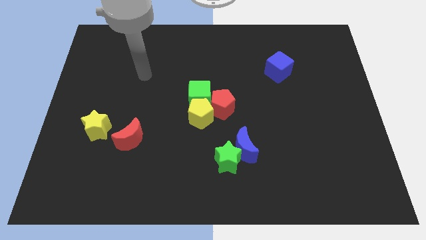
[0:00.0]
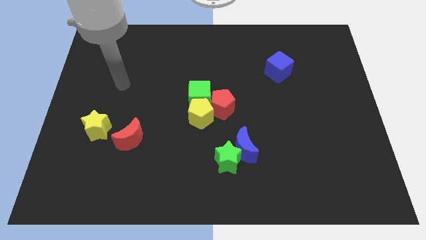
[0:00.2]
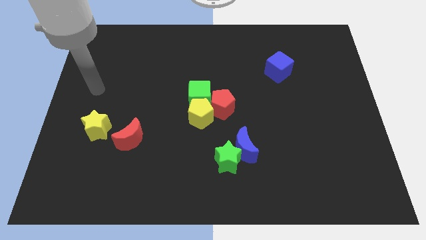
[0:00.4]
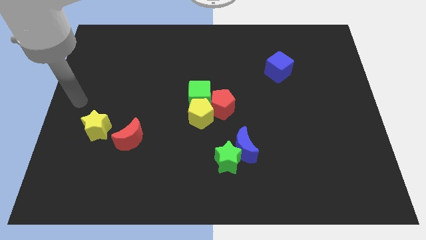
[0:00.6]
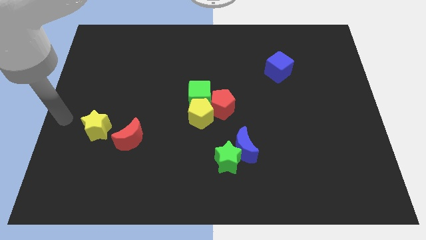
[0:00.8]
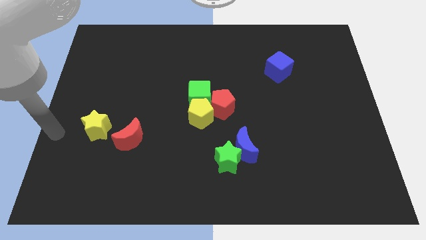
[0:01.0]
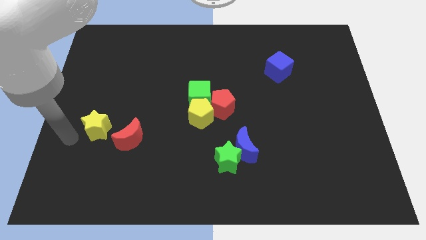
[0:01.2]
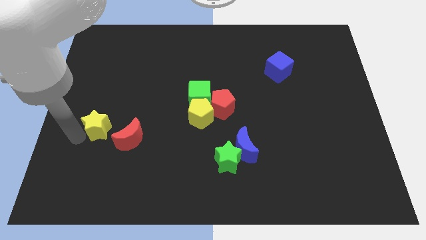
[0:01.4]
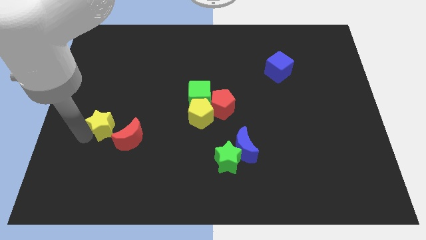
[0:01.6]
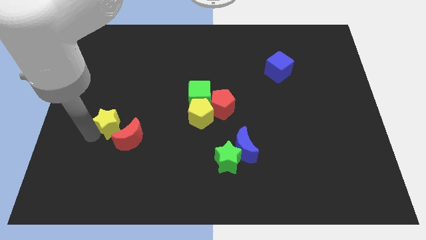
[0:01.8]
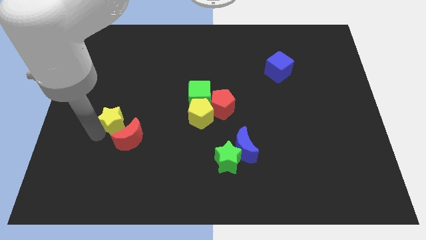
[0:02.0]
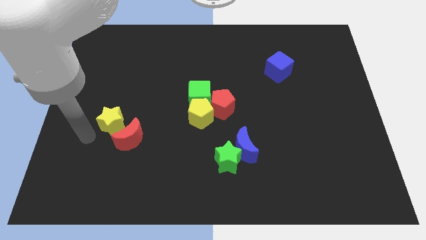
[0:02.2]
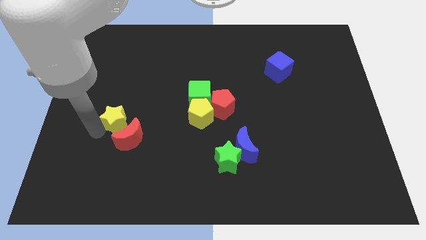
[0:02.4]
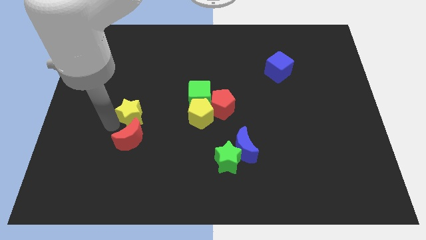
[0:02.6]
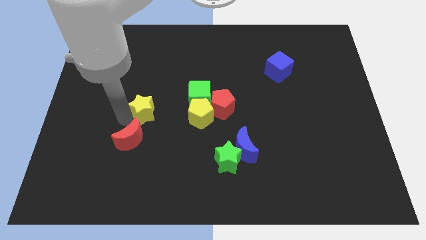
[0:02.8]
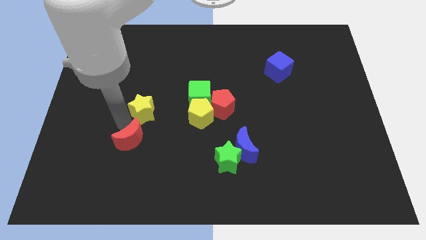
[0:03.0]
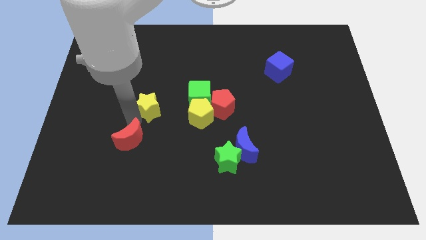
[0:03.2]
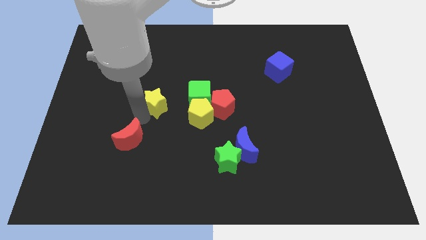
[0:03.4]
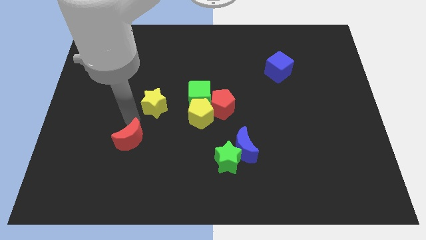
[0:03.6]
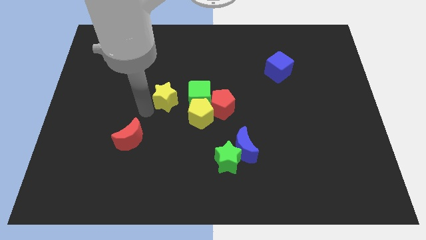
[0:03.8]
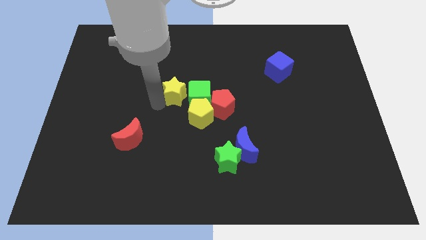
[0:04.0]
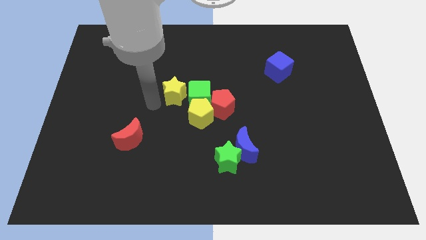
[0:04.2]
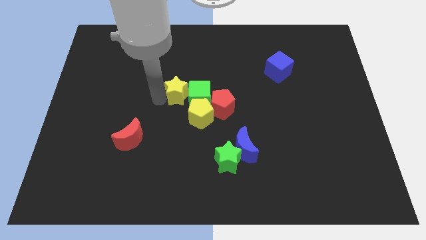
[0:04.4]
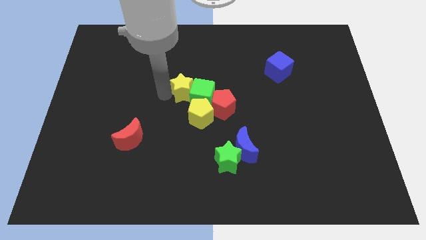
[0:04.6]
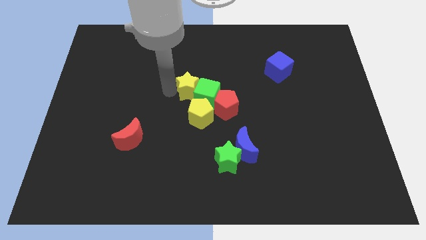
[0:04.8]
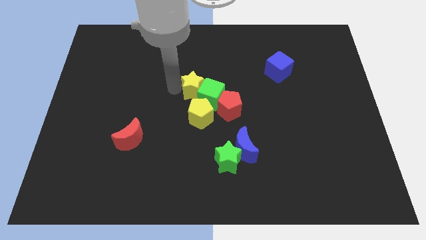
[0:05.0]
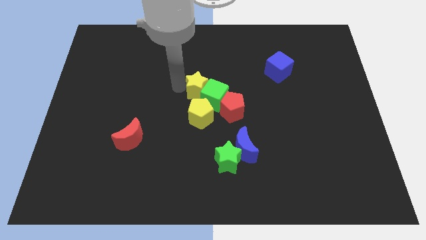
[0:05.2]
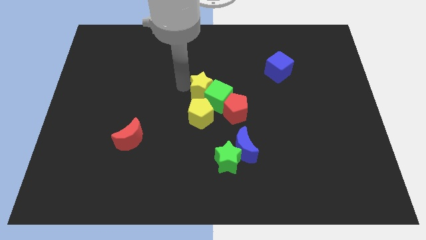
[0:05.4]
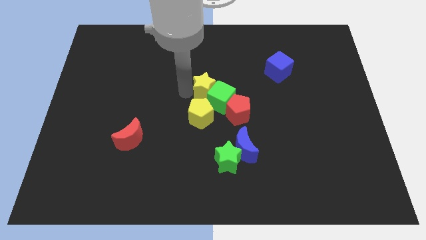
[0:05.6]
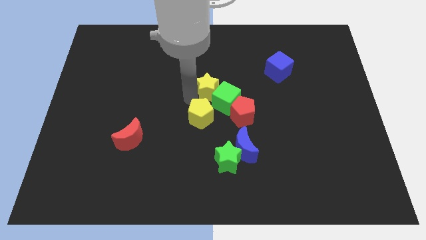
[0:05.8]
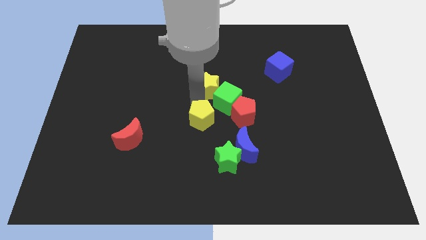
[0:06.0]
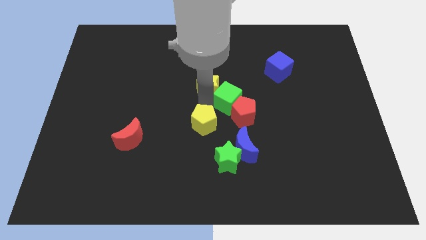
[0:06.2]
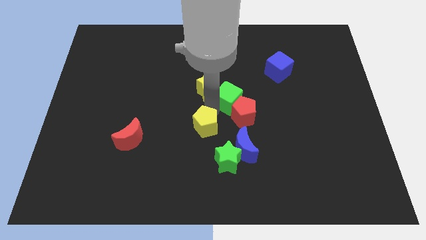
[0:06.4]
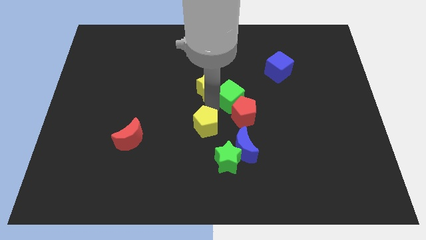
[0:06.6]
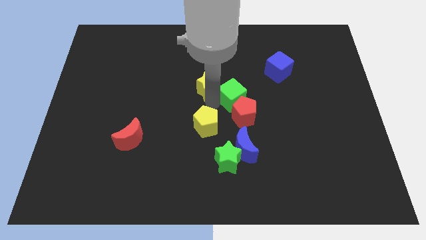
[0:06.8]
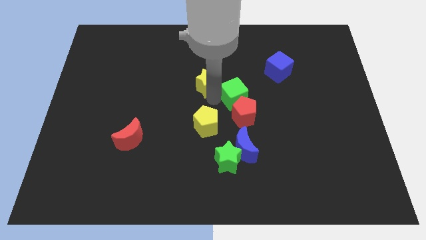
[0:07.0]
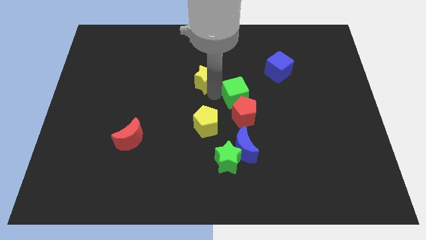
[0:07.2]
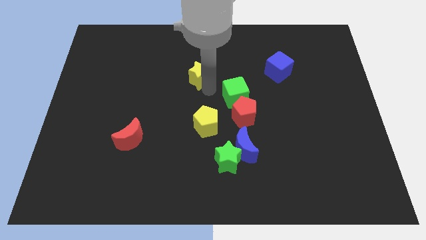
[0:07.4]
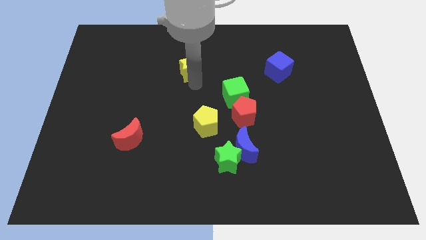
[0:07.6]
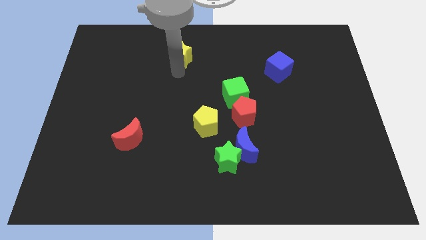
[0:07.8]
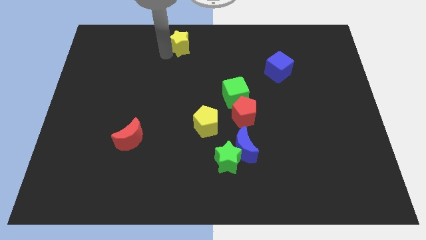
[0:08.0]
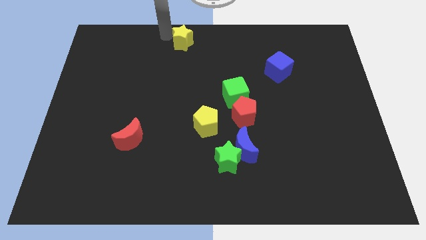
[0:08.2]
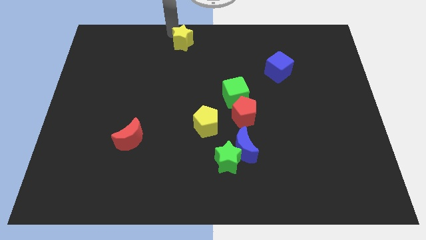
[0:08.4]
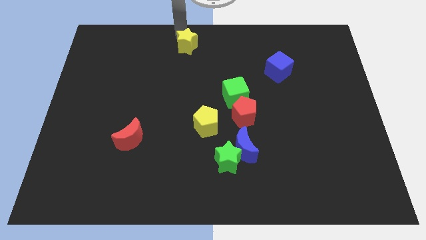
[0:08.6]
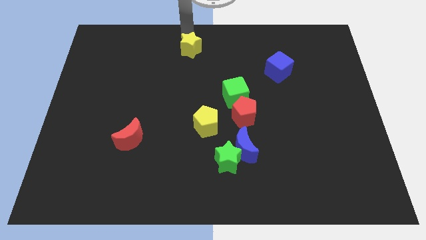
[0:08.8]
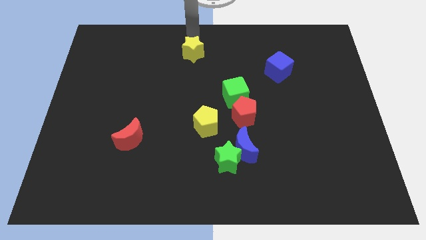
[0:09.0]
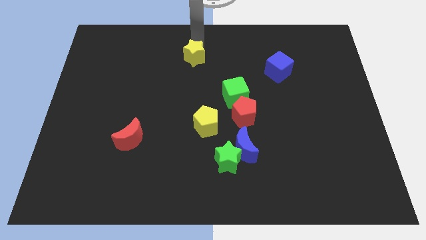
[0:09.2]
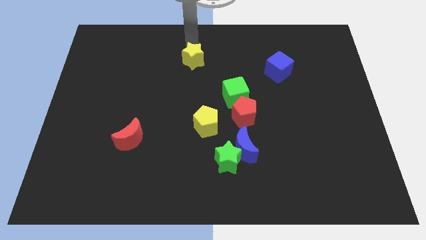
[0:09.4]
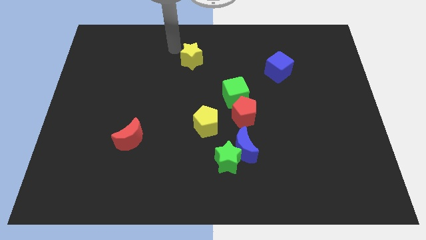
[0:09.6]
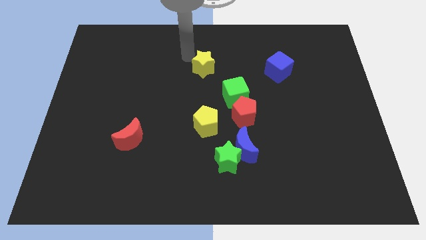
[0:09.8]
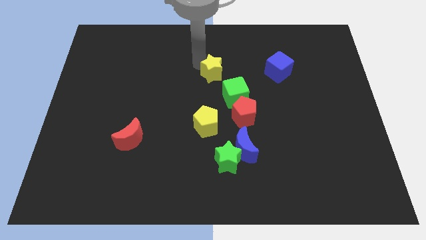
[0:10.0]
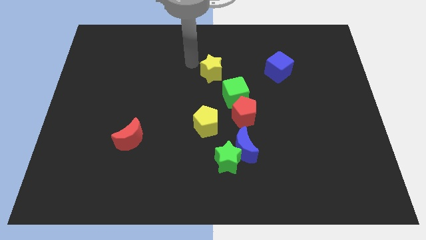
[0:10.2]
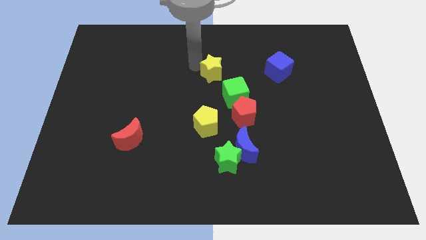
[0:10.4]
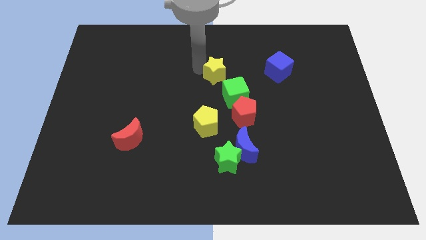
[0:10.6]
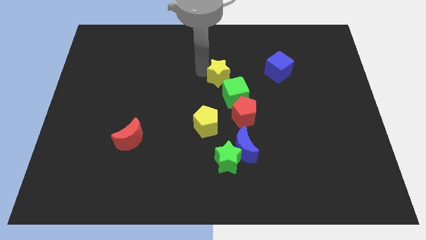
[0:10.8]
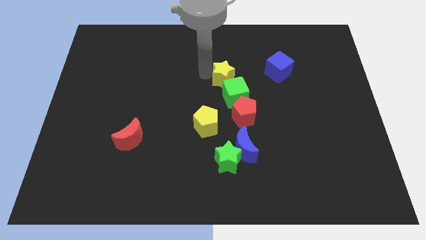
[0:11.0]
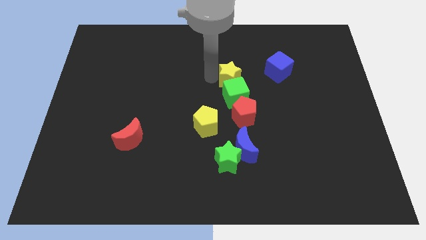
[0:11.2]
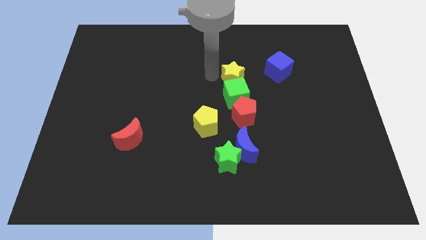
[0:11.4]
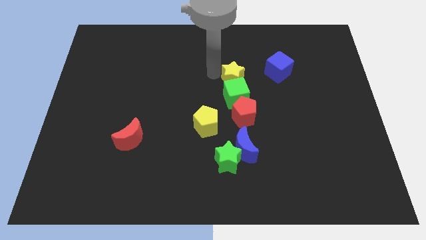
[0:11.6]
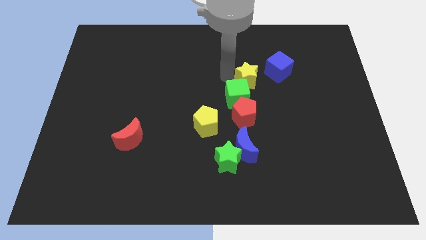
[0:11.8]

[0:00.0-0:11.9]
push the yellow star diagonally down and to the left of the blue cube

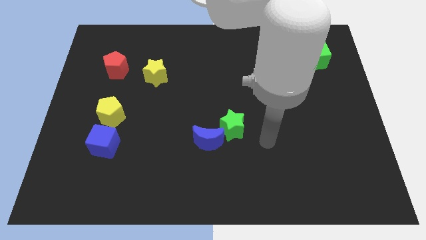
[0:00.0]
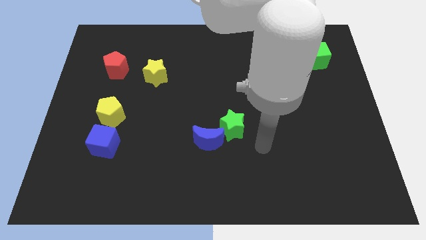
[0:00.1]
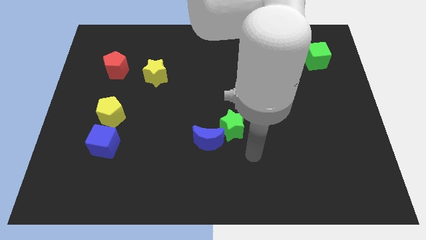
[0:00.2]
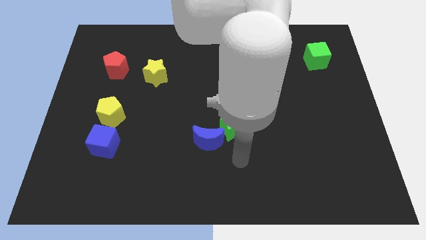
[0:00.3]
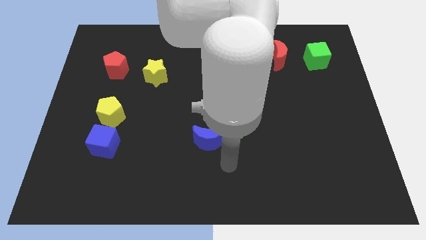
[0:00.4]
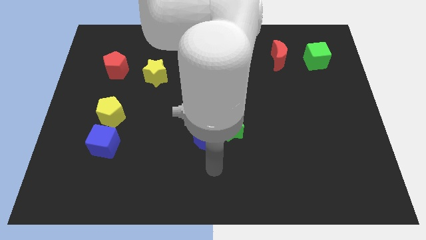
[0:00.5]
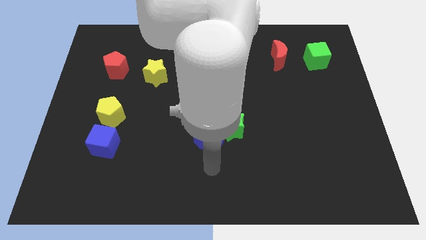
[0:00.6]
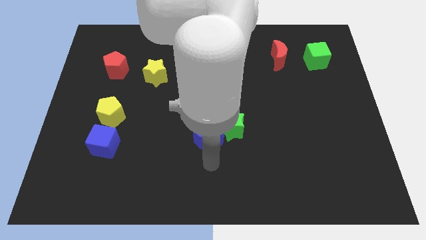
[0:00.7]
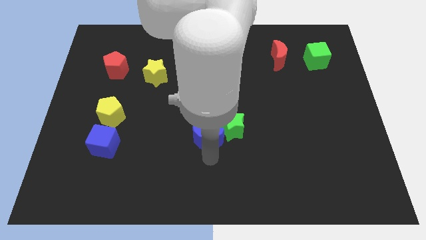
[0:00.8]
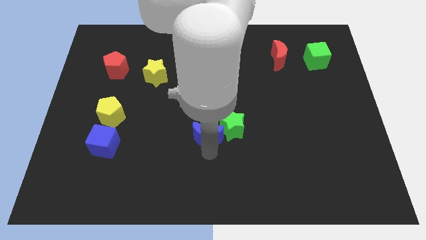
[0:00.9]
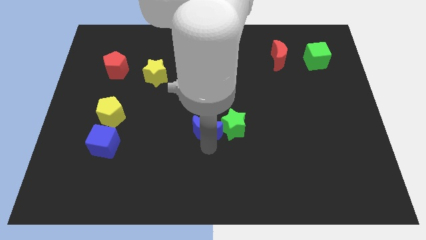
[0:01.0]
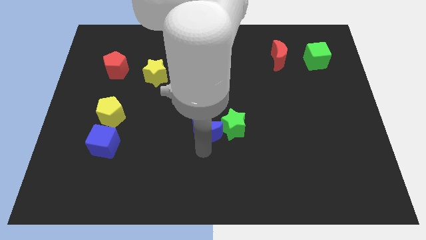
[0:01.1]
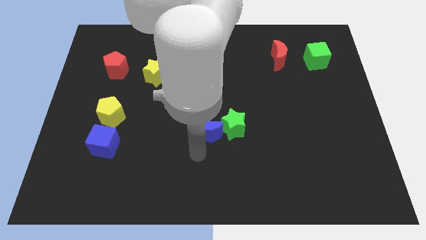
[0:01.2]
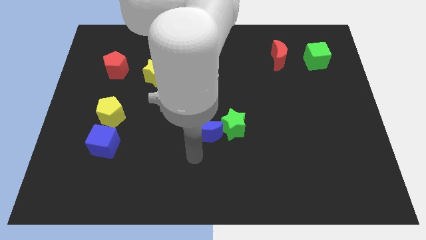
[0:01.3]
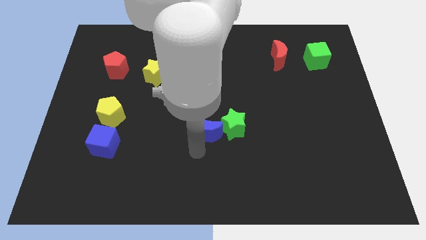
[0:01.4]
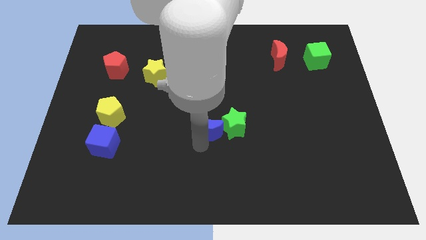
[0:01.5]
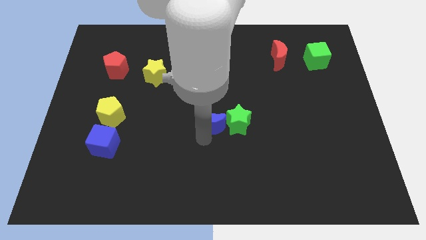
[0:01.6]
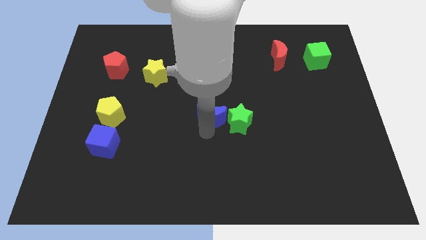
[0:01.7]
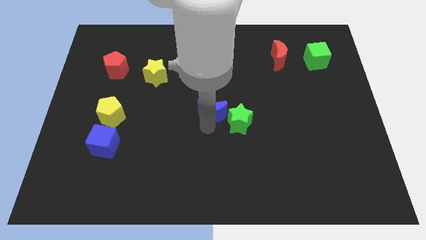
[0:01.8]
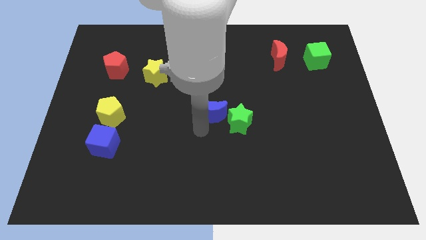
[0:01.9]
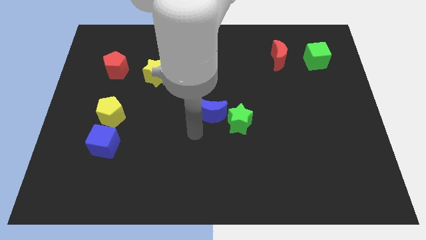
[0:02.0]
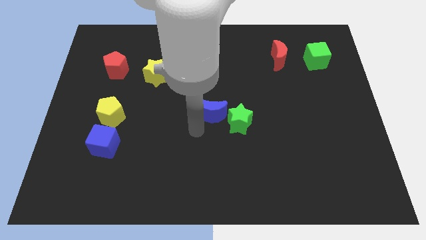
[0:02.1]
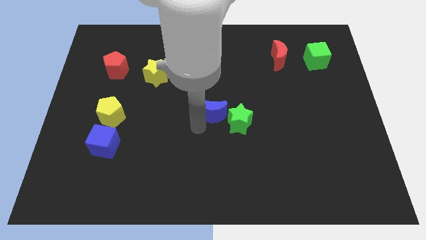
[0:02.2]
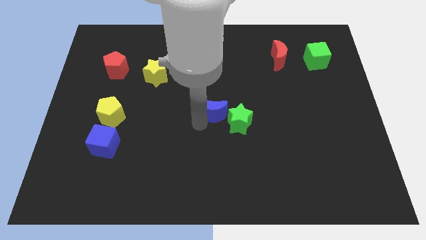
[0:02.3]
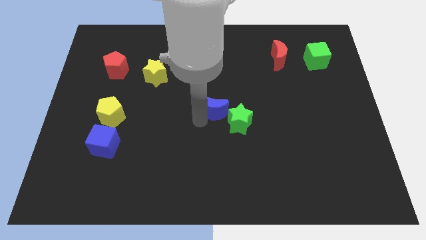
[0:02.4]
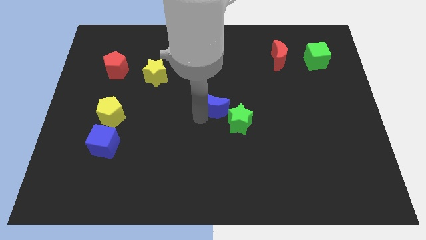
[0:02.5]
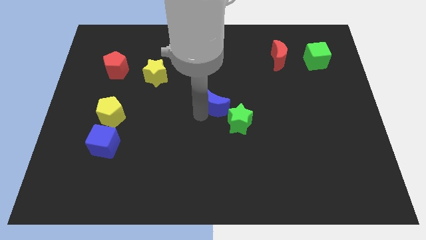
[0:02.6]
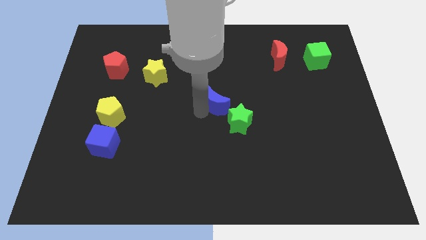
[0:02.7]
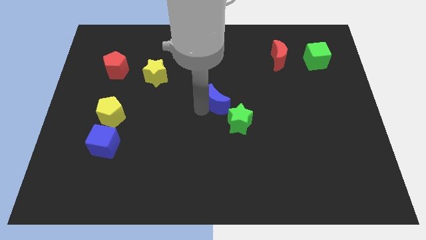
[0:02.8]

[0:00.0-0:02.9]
slide the blue moon to the top side of the green star
